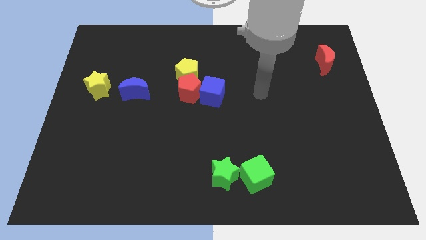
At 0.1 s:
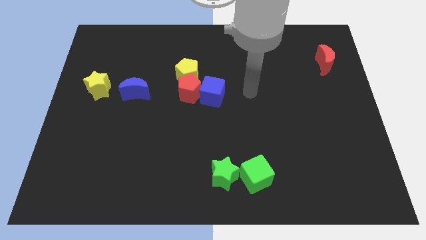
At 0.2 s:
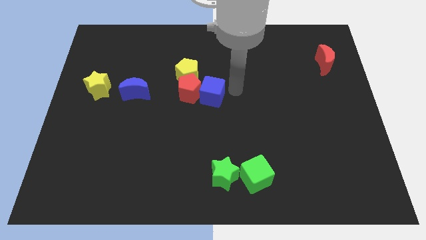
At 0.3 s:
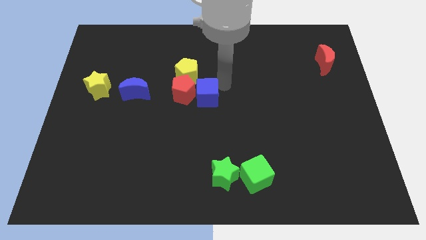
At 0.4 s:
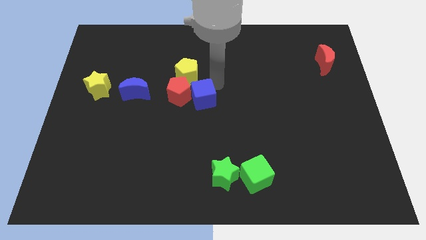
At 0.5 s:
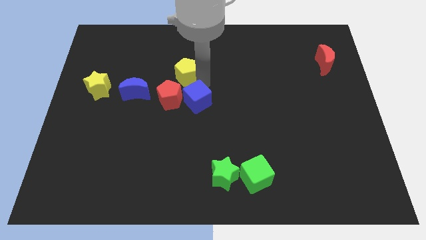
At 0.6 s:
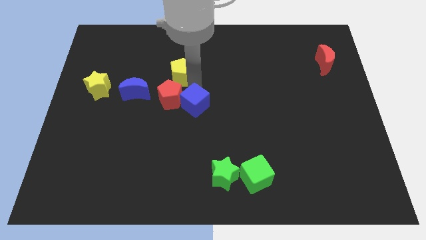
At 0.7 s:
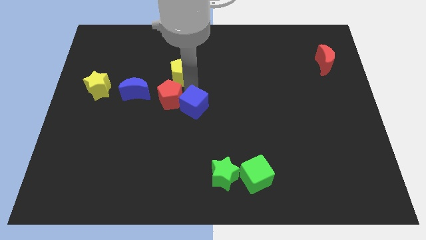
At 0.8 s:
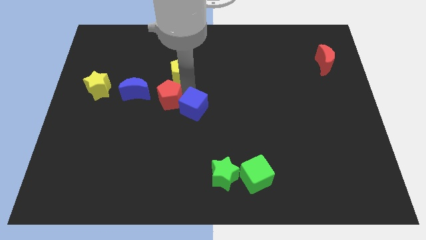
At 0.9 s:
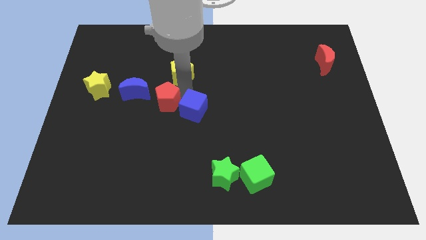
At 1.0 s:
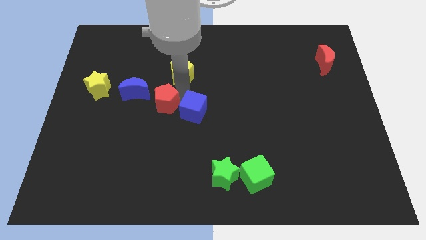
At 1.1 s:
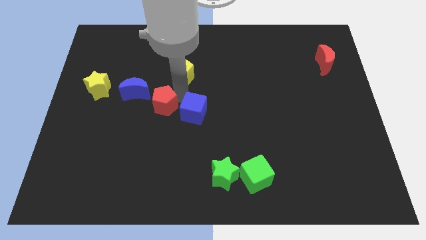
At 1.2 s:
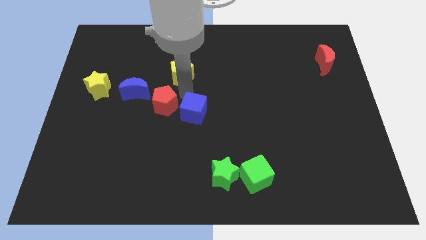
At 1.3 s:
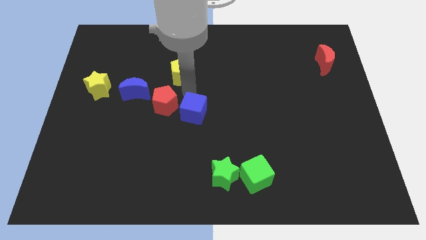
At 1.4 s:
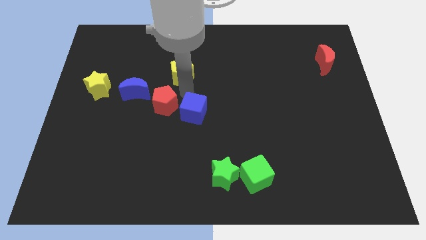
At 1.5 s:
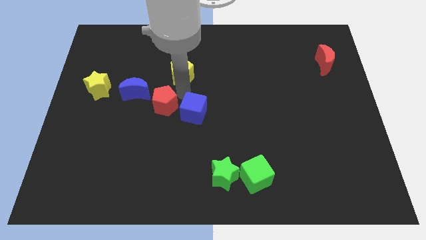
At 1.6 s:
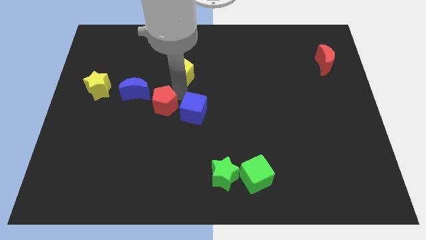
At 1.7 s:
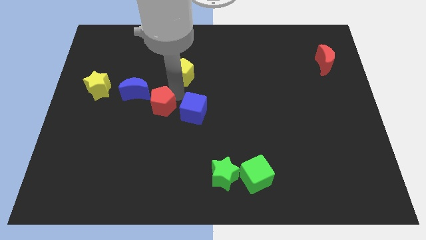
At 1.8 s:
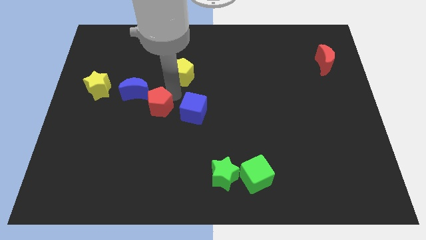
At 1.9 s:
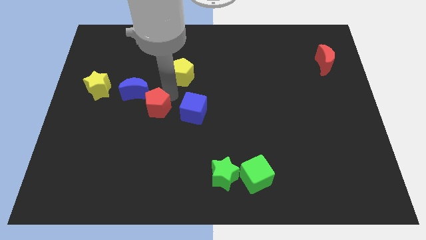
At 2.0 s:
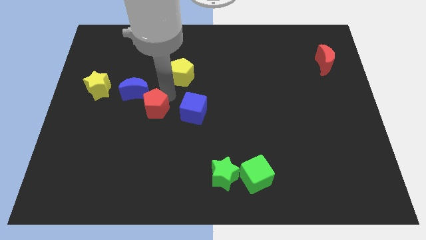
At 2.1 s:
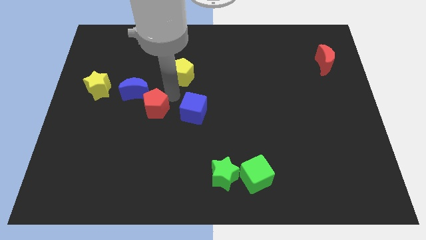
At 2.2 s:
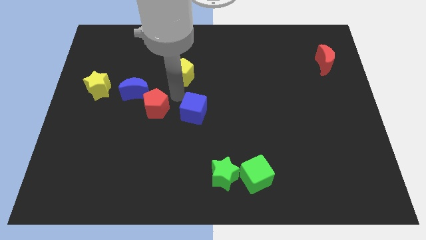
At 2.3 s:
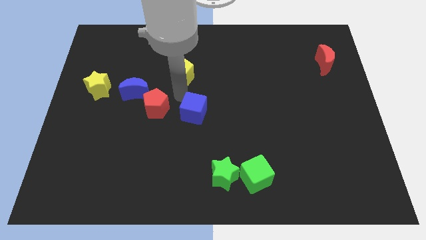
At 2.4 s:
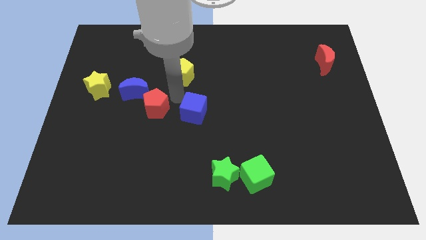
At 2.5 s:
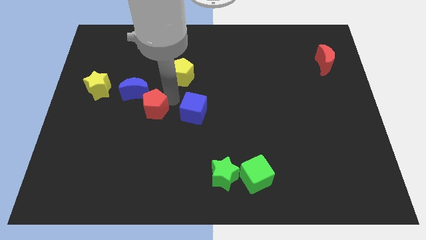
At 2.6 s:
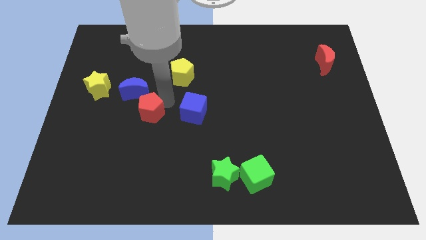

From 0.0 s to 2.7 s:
move the red pentagon away from the yellow pentagon and blue cube

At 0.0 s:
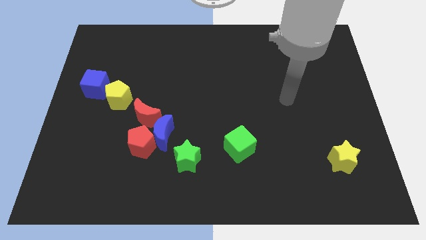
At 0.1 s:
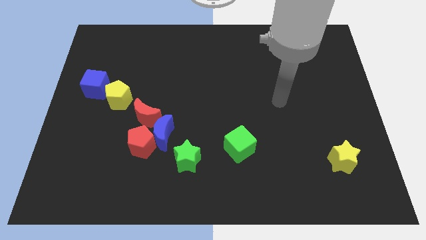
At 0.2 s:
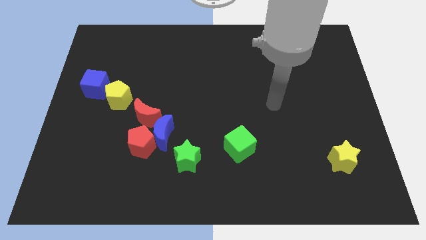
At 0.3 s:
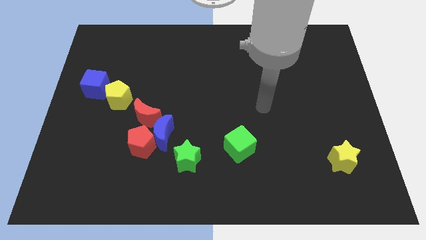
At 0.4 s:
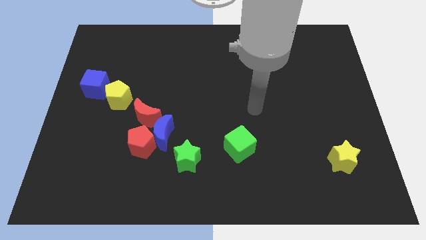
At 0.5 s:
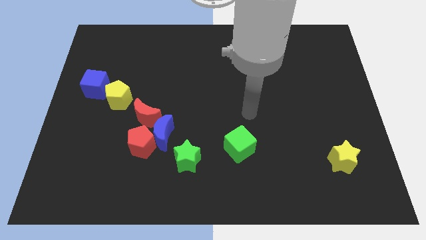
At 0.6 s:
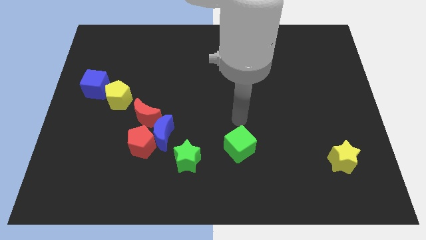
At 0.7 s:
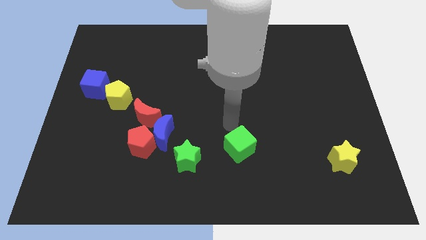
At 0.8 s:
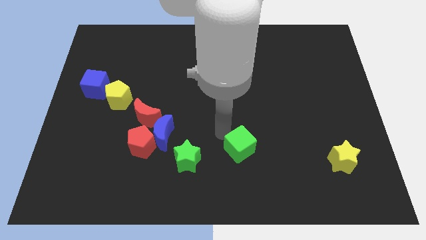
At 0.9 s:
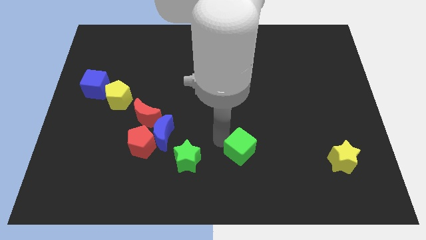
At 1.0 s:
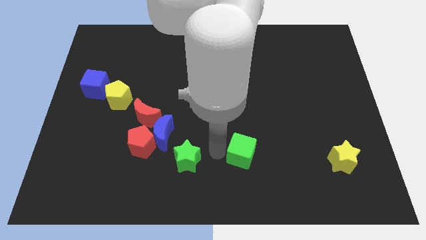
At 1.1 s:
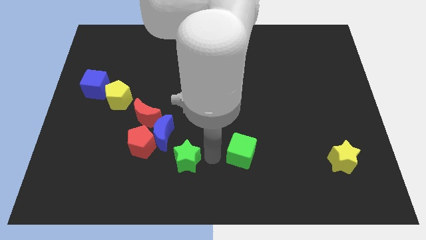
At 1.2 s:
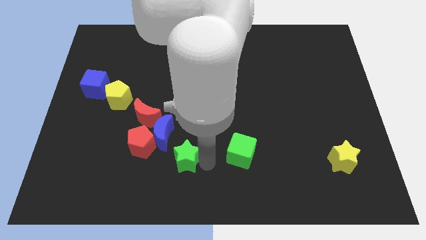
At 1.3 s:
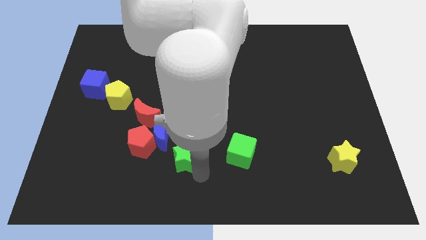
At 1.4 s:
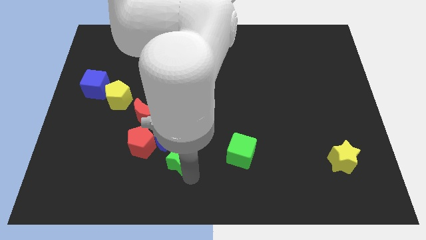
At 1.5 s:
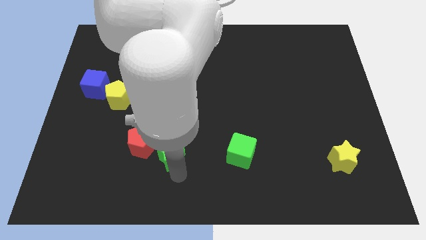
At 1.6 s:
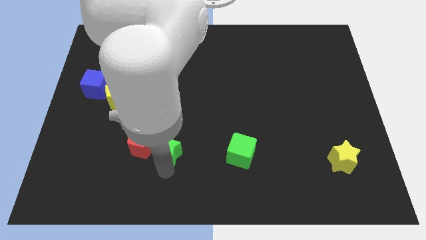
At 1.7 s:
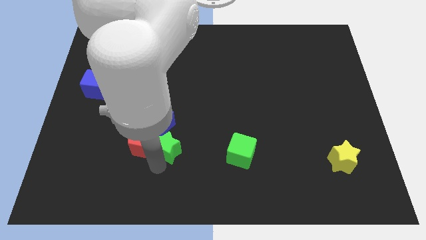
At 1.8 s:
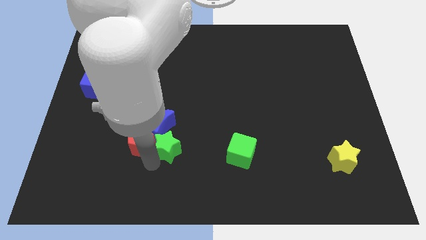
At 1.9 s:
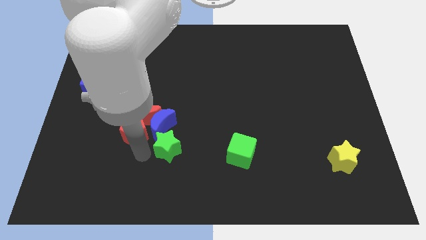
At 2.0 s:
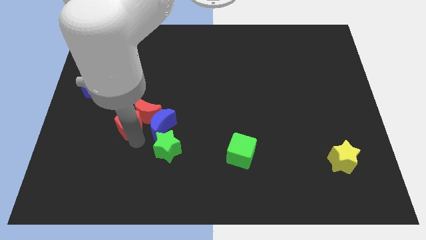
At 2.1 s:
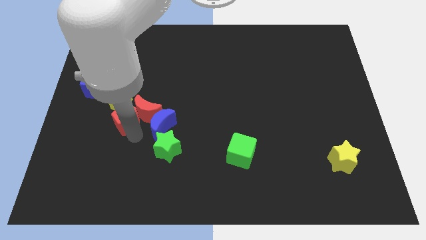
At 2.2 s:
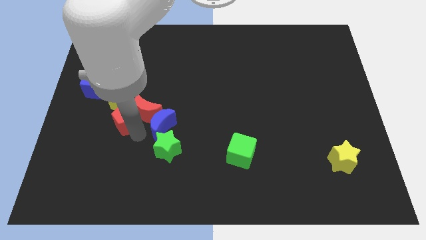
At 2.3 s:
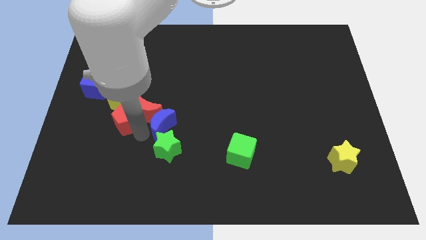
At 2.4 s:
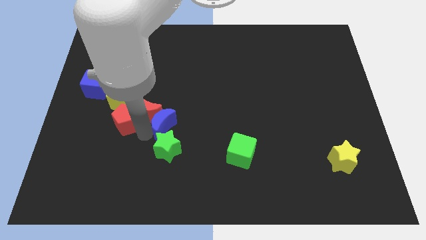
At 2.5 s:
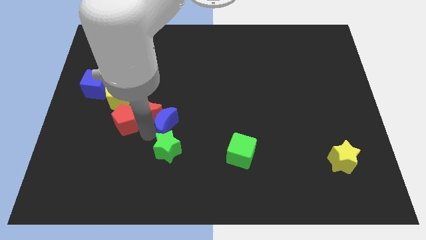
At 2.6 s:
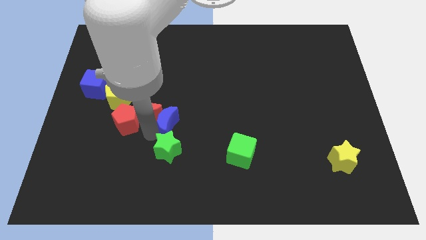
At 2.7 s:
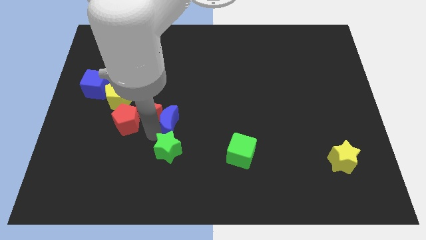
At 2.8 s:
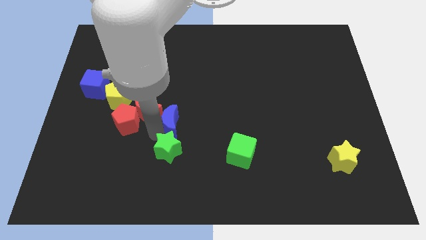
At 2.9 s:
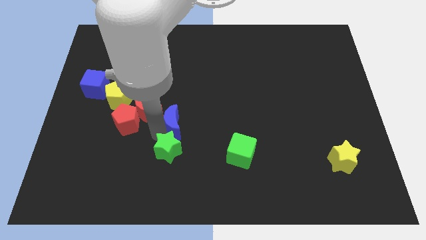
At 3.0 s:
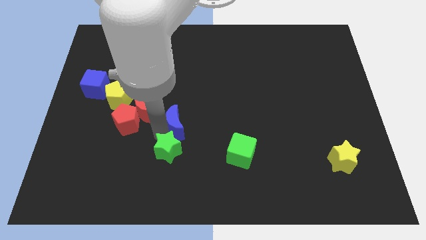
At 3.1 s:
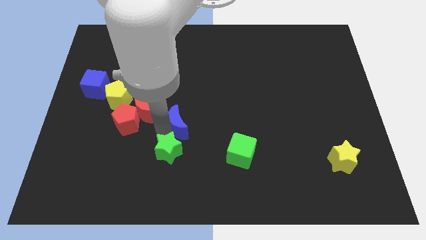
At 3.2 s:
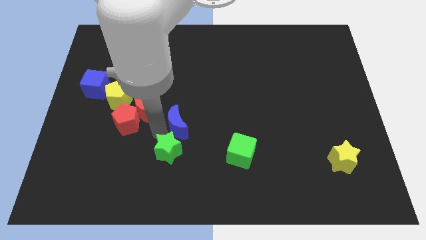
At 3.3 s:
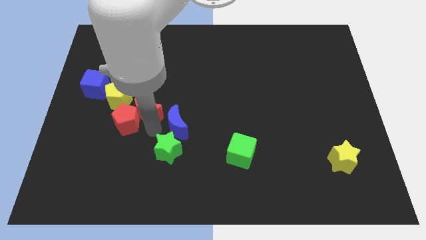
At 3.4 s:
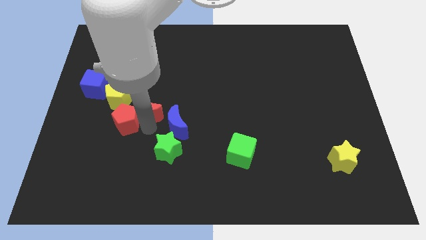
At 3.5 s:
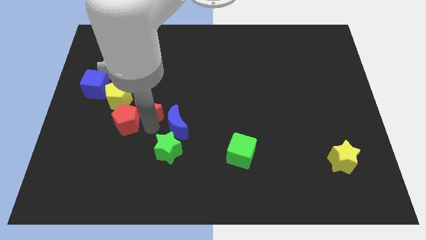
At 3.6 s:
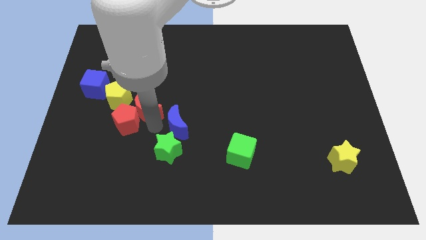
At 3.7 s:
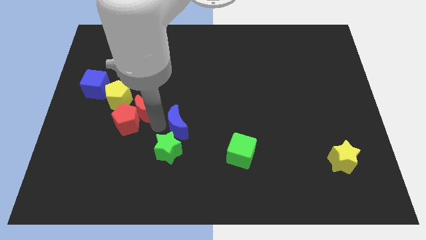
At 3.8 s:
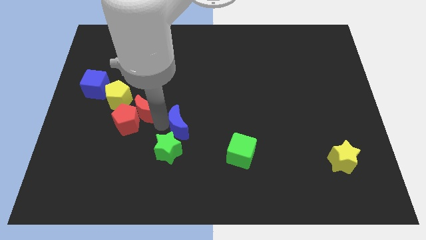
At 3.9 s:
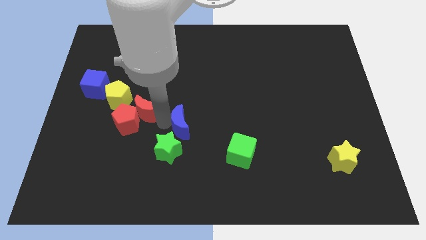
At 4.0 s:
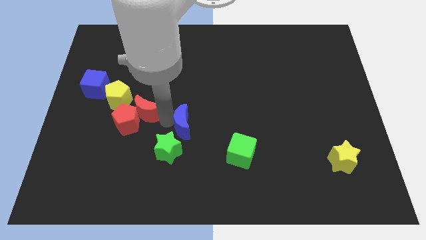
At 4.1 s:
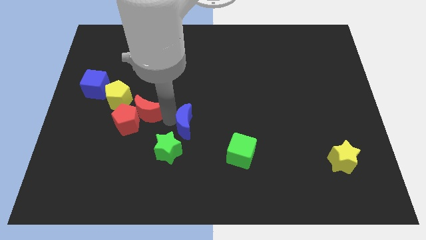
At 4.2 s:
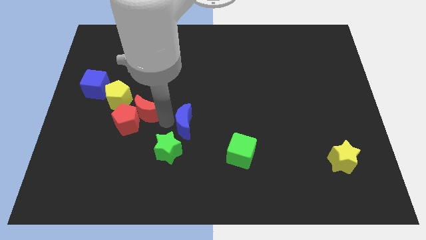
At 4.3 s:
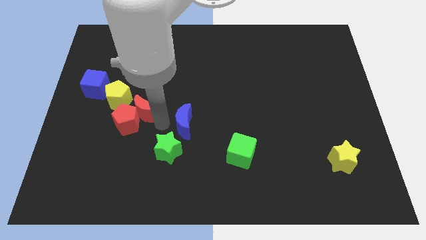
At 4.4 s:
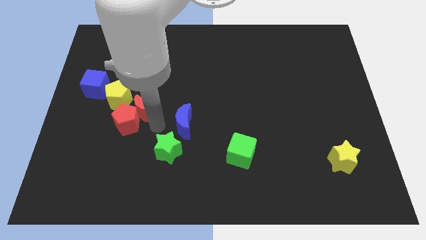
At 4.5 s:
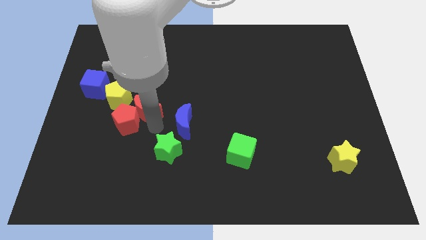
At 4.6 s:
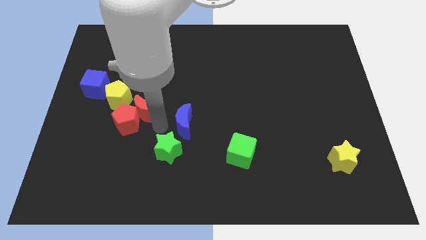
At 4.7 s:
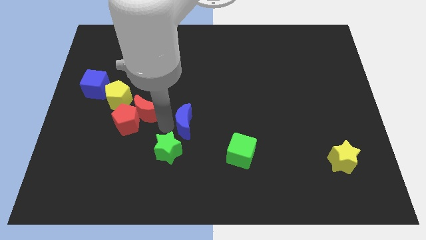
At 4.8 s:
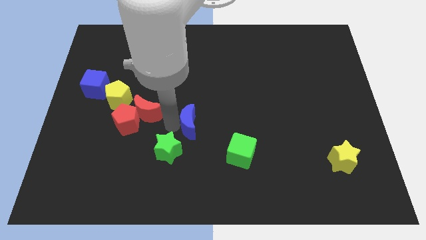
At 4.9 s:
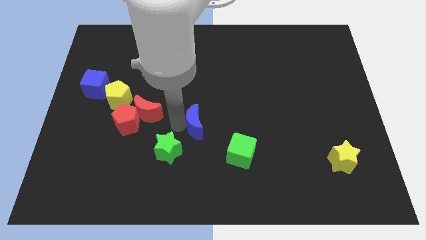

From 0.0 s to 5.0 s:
pull the blue moon apart from the red pentagon, red moon, and green star

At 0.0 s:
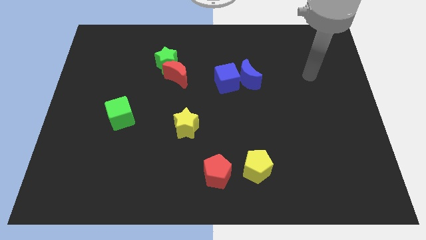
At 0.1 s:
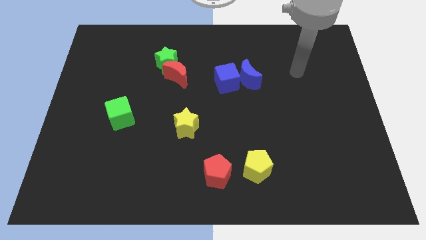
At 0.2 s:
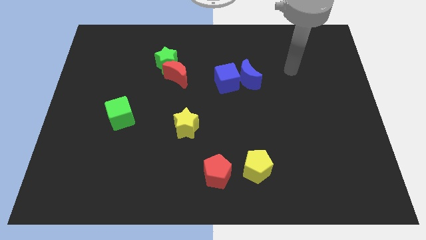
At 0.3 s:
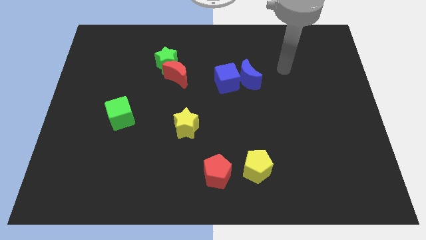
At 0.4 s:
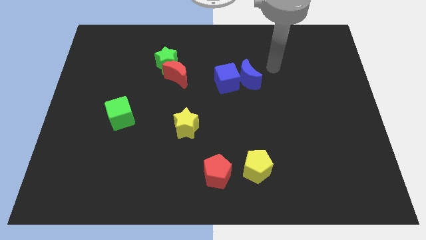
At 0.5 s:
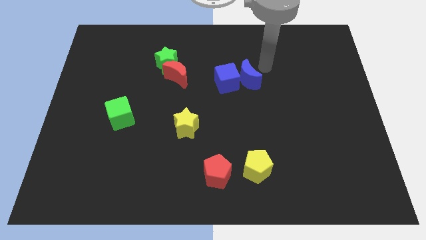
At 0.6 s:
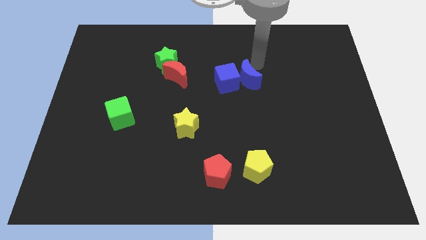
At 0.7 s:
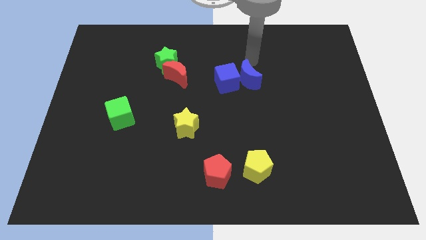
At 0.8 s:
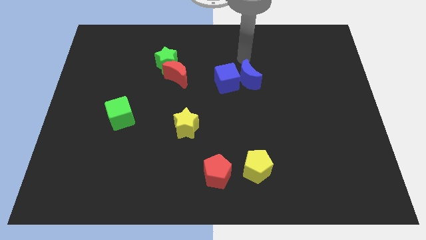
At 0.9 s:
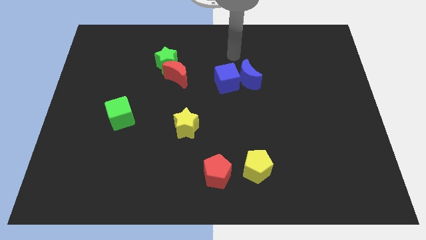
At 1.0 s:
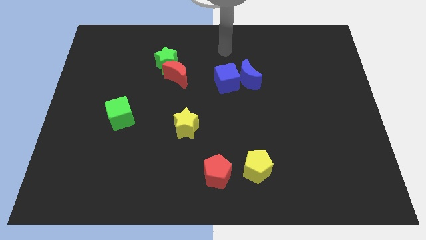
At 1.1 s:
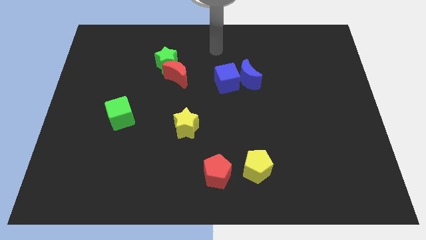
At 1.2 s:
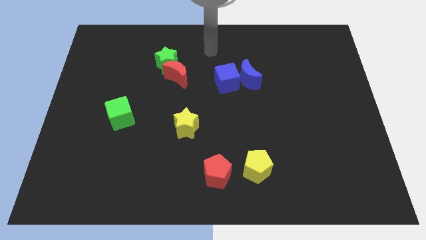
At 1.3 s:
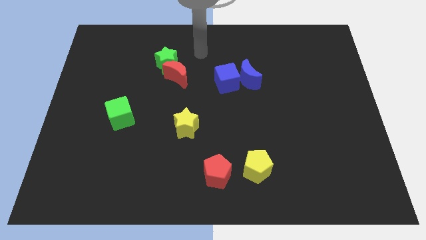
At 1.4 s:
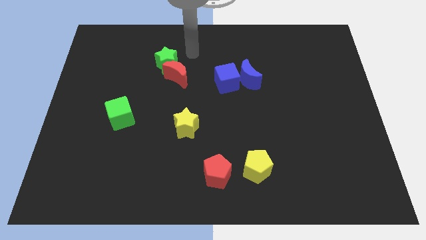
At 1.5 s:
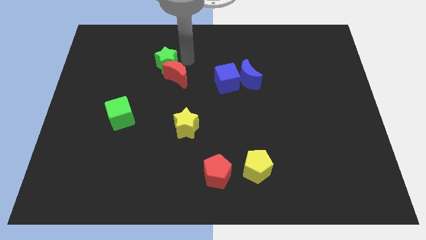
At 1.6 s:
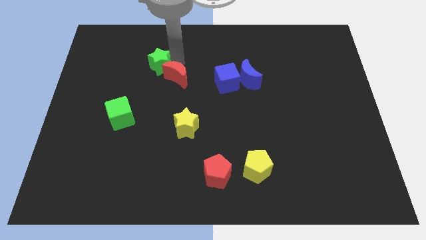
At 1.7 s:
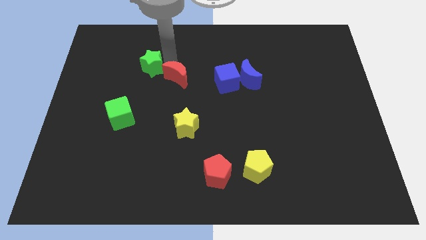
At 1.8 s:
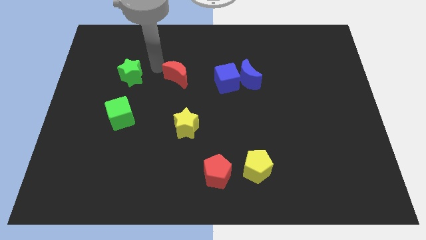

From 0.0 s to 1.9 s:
separate the red moon from the green star
